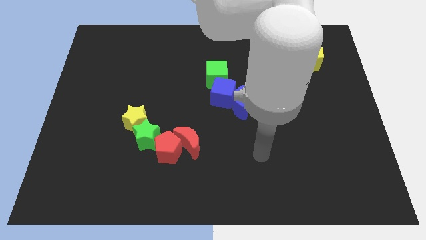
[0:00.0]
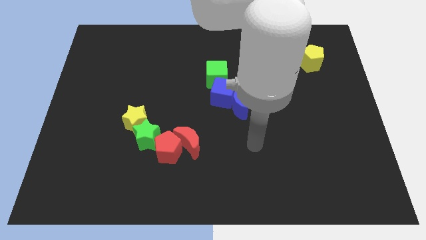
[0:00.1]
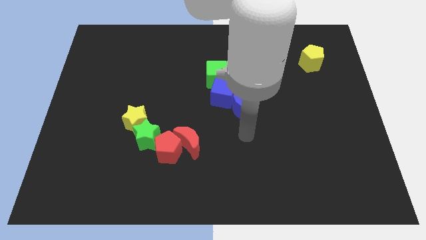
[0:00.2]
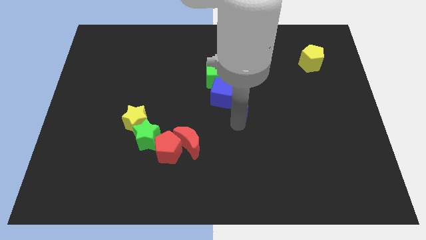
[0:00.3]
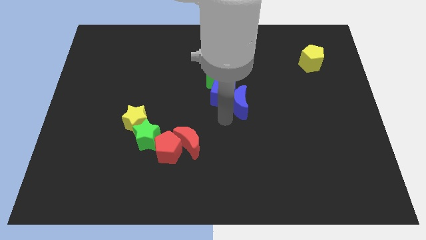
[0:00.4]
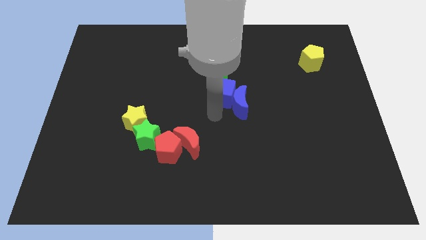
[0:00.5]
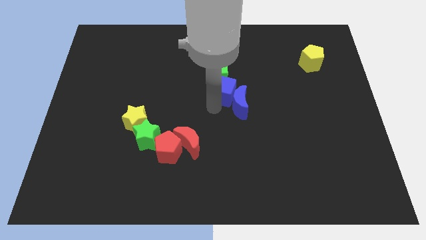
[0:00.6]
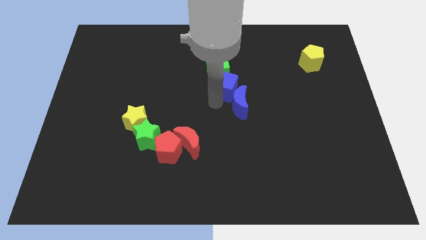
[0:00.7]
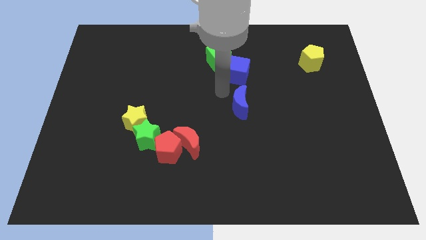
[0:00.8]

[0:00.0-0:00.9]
move the blue moon away from the blue cube

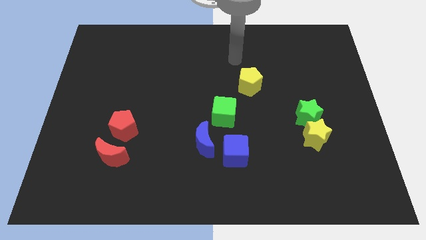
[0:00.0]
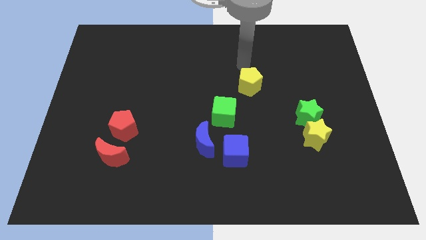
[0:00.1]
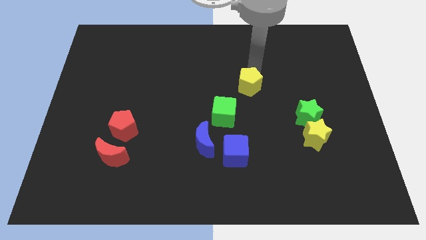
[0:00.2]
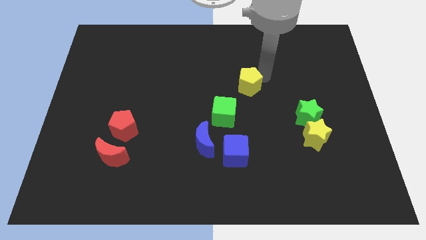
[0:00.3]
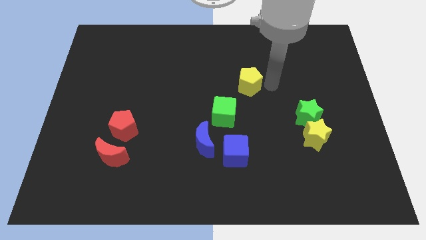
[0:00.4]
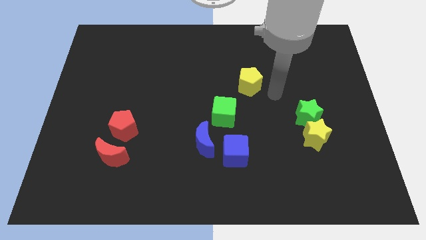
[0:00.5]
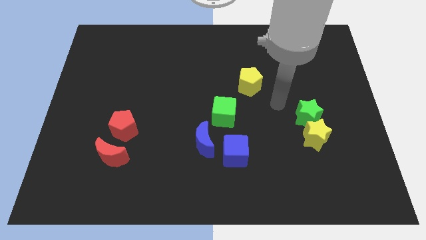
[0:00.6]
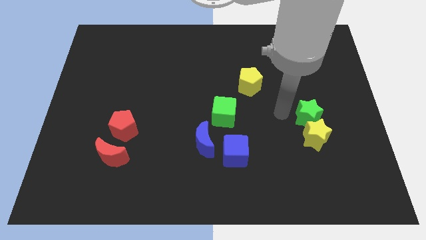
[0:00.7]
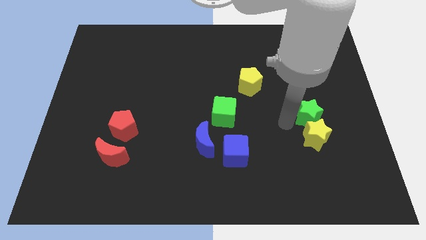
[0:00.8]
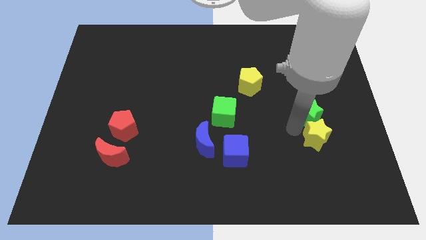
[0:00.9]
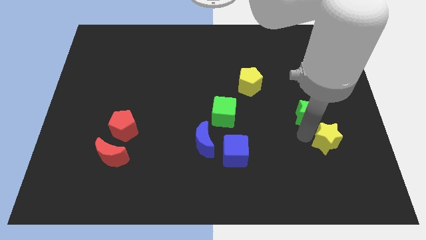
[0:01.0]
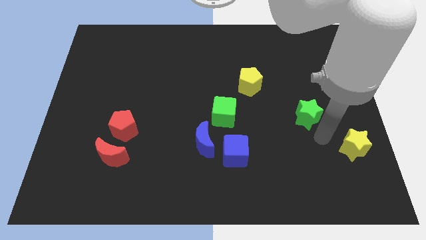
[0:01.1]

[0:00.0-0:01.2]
separate the green star from the yellow star

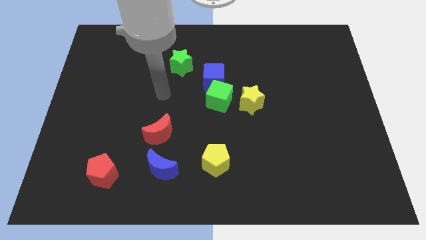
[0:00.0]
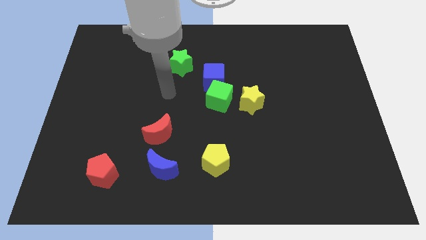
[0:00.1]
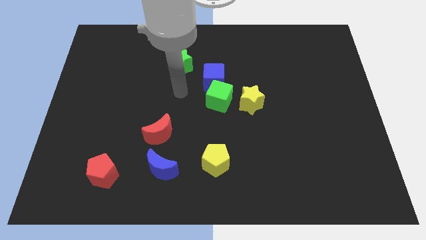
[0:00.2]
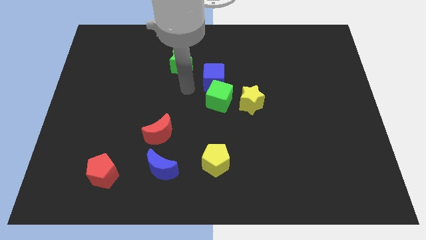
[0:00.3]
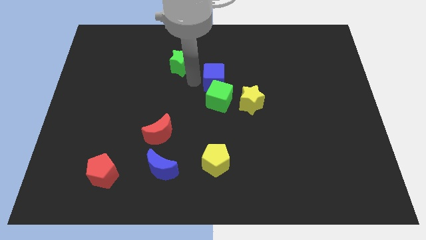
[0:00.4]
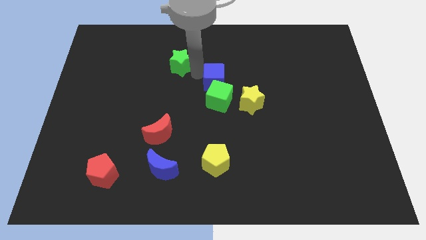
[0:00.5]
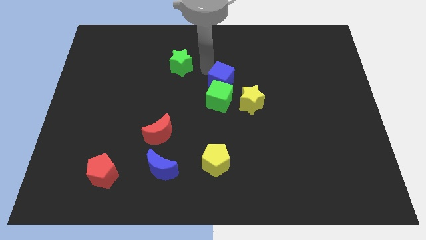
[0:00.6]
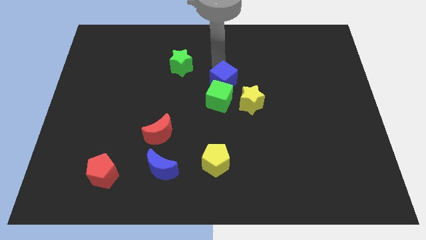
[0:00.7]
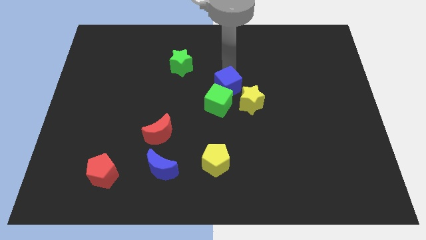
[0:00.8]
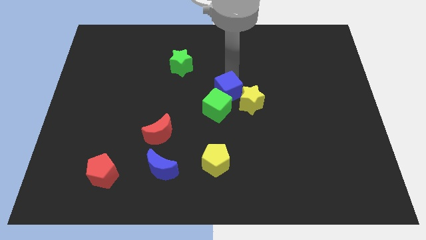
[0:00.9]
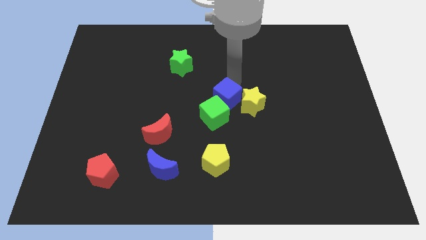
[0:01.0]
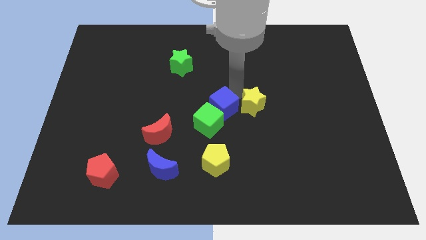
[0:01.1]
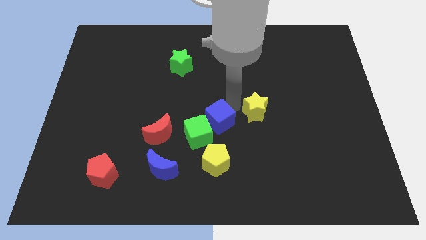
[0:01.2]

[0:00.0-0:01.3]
pull the green cube apart from the blue cube and yellow star

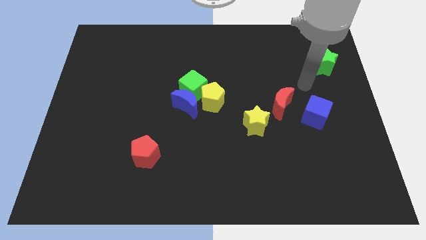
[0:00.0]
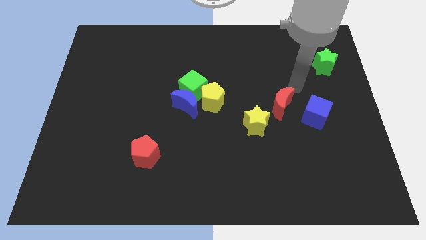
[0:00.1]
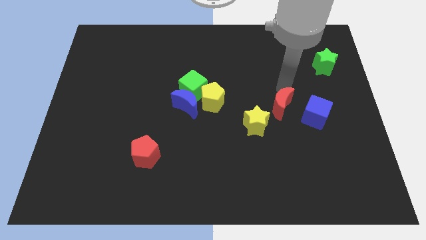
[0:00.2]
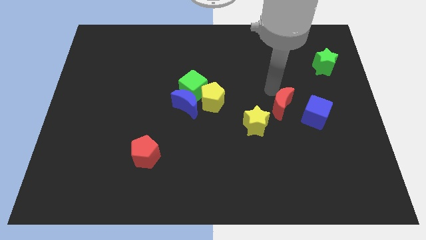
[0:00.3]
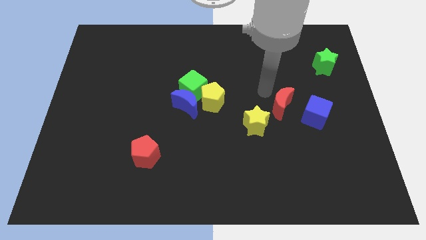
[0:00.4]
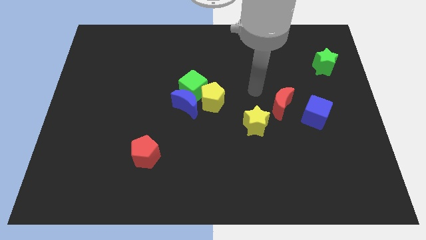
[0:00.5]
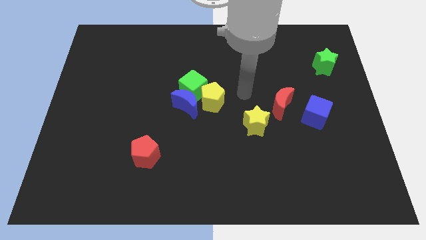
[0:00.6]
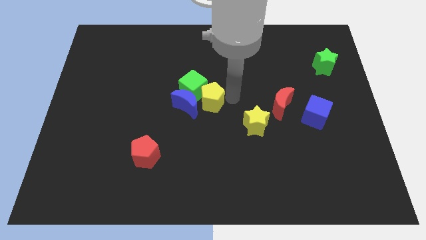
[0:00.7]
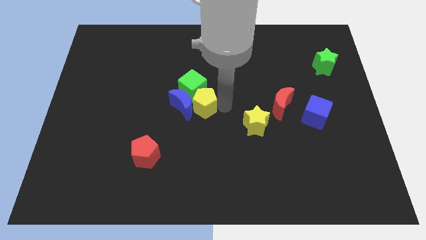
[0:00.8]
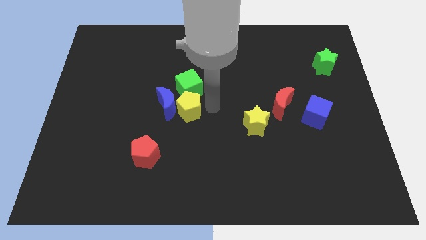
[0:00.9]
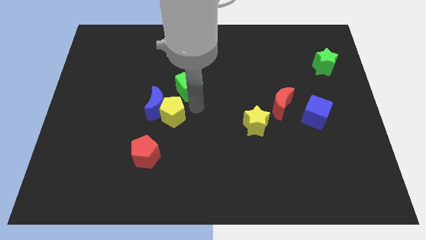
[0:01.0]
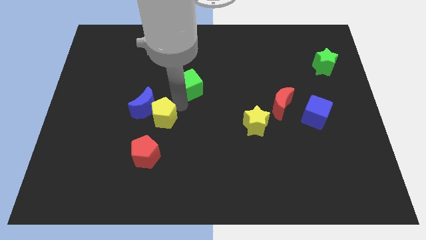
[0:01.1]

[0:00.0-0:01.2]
pull the green cube apart from the blue moon and yellow pentagon

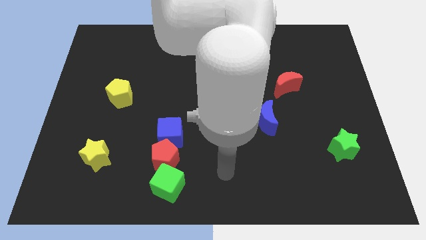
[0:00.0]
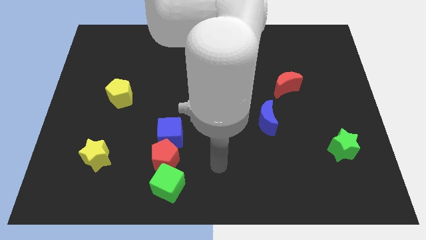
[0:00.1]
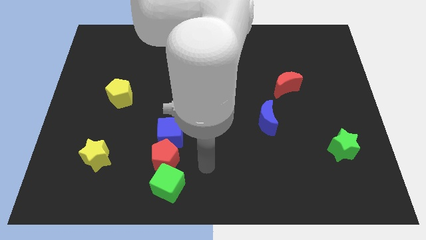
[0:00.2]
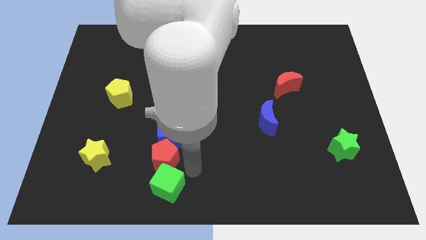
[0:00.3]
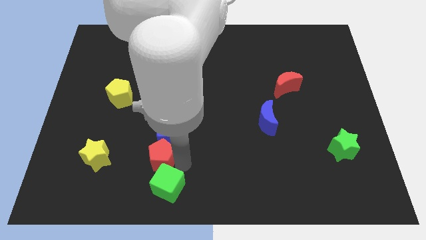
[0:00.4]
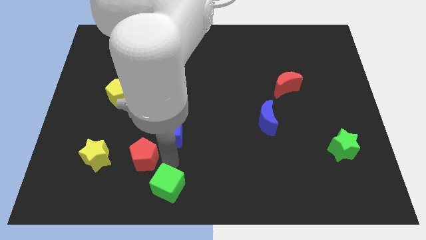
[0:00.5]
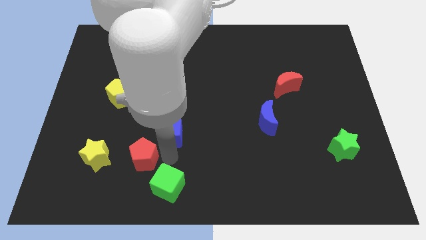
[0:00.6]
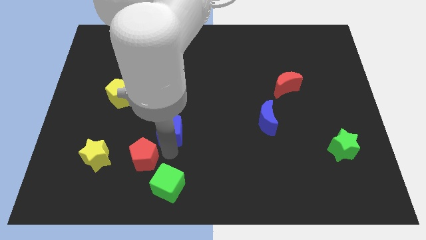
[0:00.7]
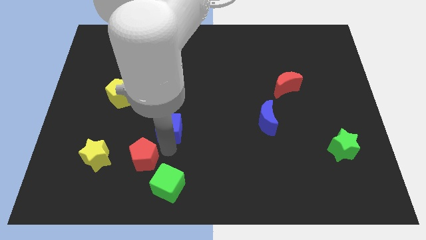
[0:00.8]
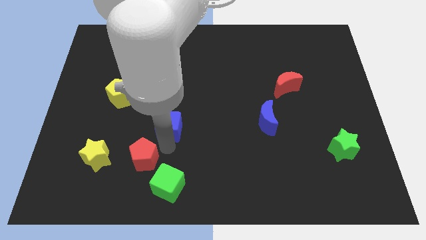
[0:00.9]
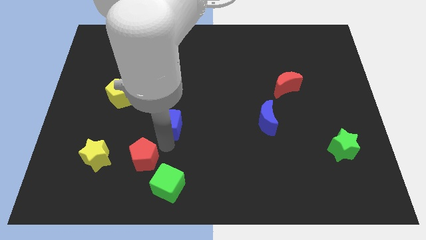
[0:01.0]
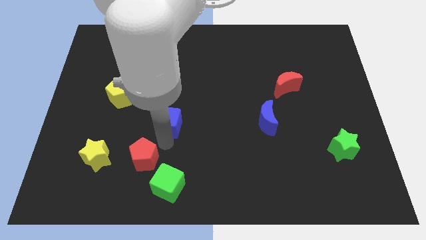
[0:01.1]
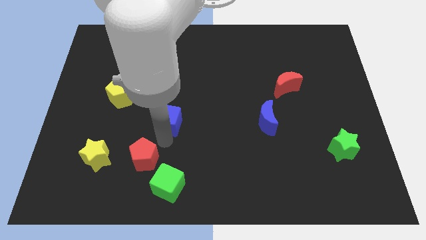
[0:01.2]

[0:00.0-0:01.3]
separate the blue cube from the red pentagon

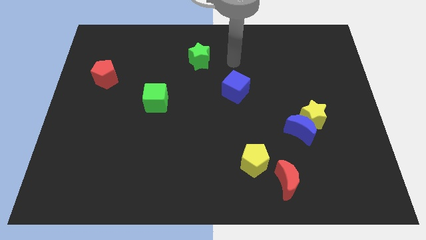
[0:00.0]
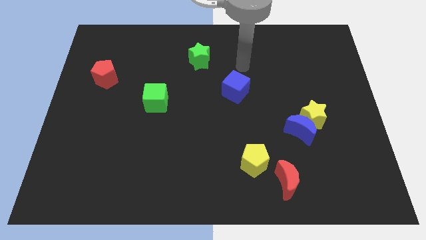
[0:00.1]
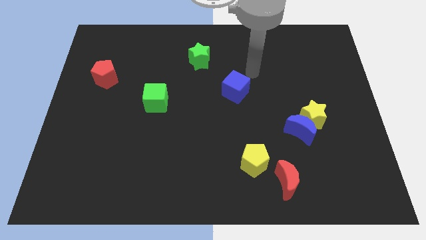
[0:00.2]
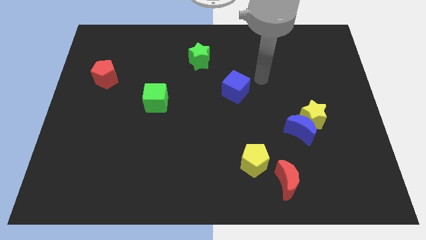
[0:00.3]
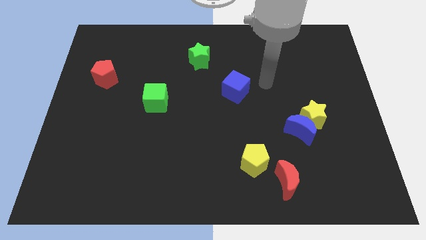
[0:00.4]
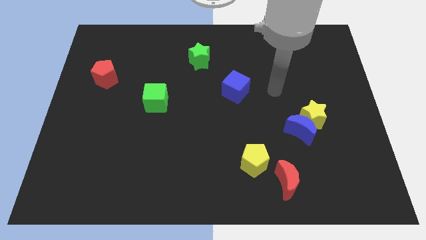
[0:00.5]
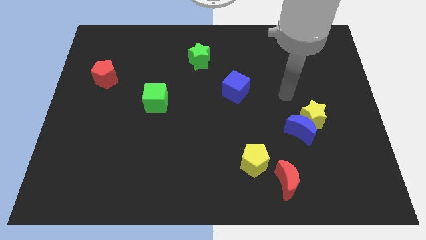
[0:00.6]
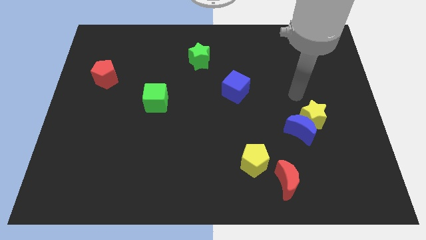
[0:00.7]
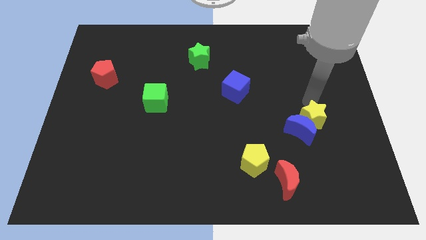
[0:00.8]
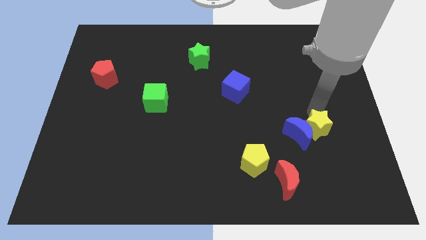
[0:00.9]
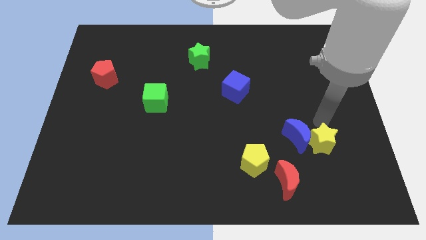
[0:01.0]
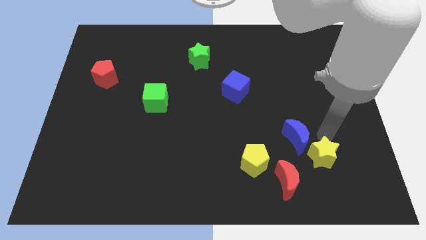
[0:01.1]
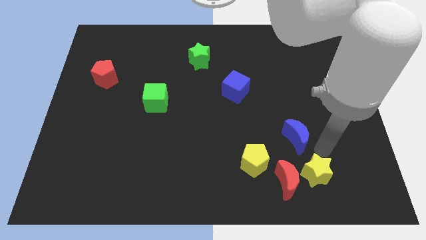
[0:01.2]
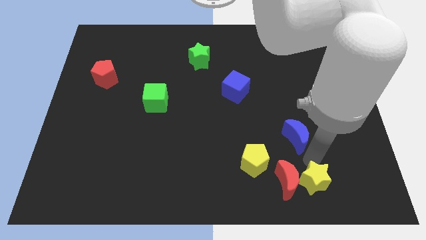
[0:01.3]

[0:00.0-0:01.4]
separate the blue moon from the yellow star

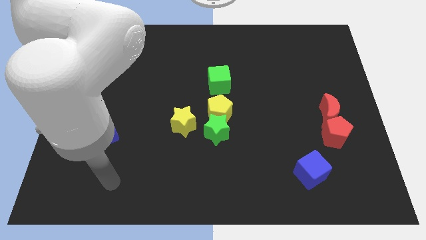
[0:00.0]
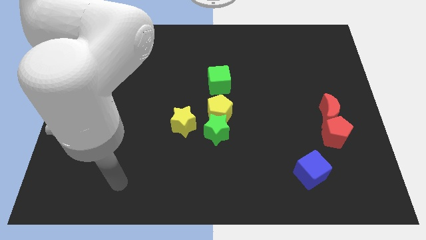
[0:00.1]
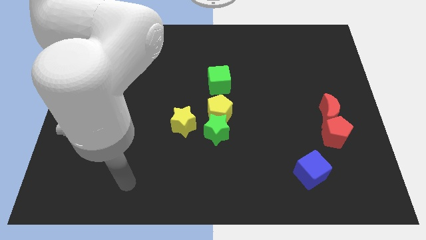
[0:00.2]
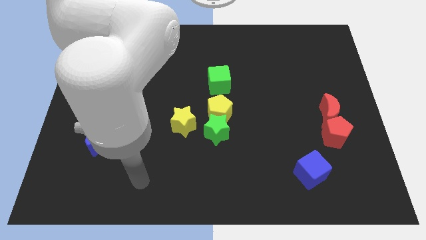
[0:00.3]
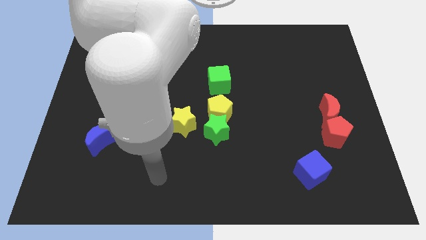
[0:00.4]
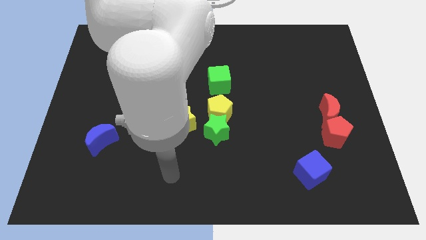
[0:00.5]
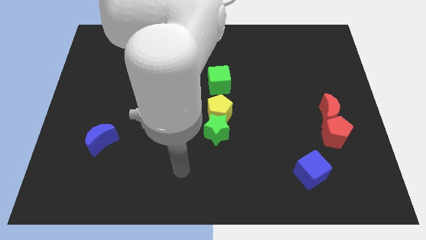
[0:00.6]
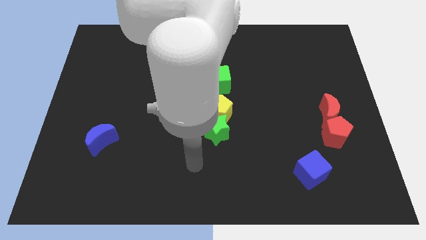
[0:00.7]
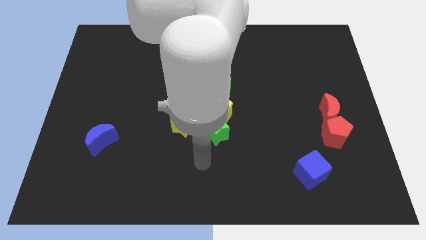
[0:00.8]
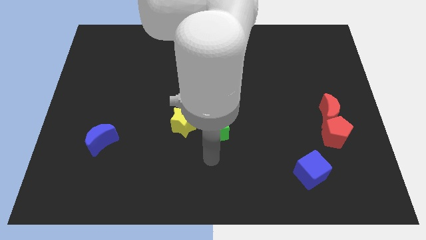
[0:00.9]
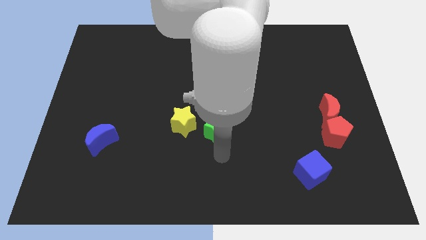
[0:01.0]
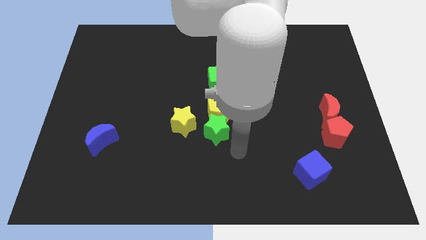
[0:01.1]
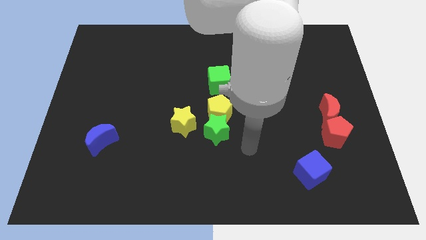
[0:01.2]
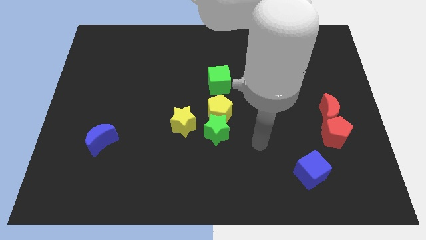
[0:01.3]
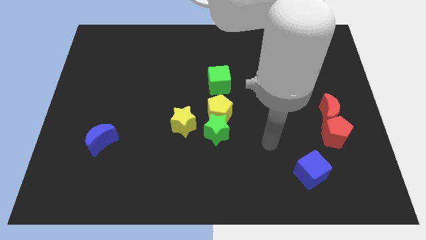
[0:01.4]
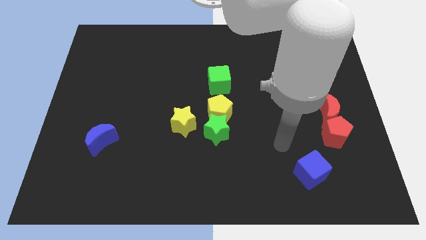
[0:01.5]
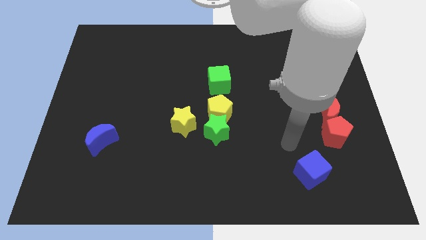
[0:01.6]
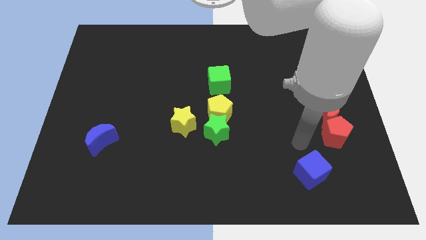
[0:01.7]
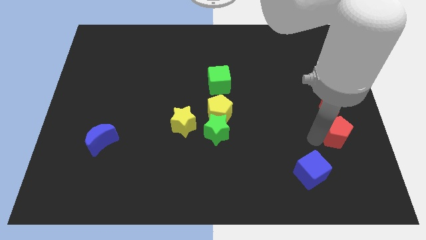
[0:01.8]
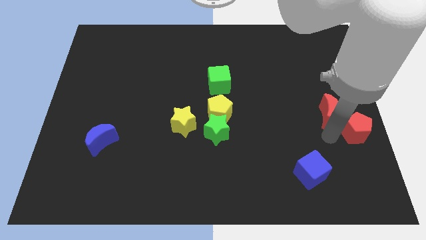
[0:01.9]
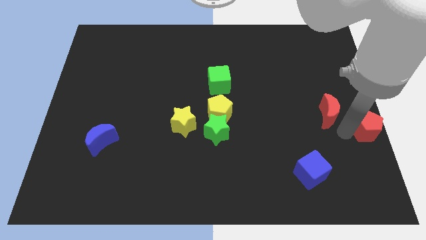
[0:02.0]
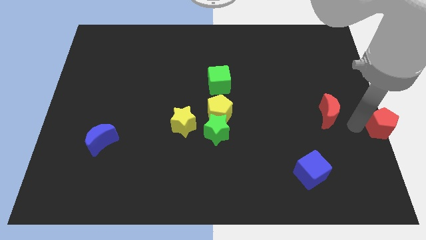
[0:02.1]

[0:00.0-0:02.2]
pull the red moon apart from the red pentagon
